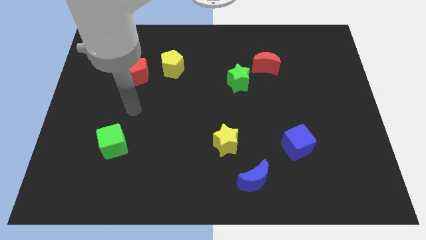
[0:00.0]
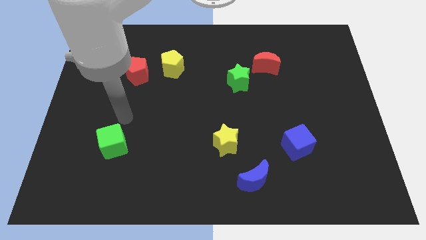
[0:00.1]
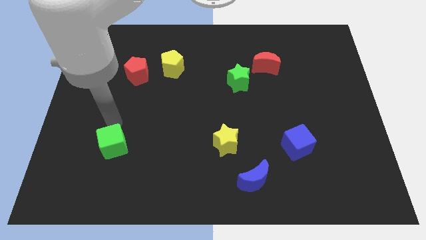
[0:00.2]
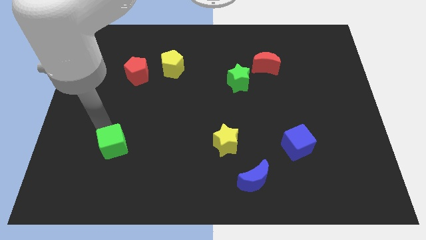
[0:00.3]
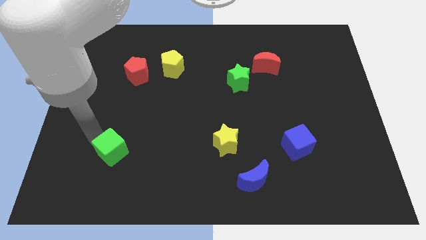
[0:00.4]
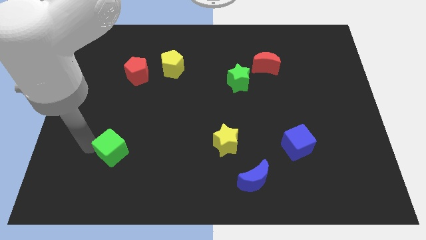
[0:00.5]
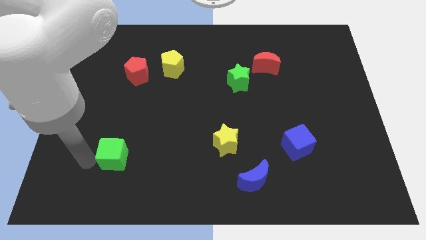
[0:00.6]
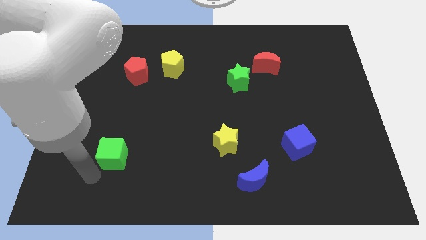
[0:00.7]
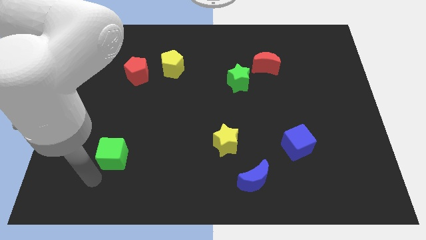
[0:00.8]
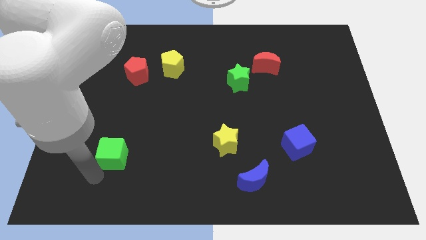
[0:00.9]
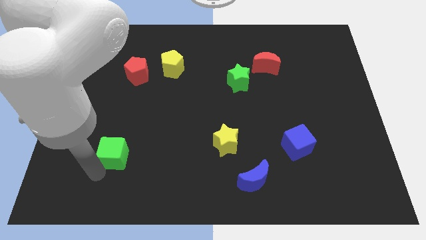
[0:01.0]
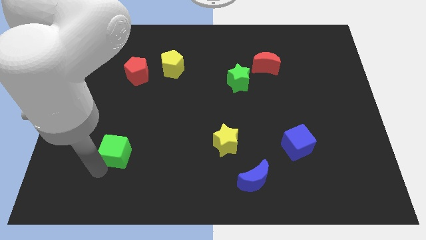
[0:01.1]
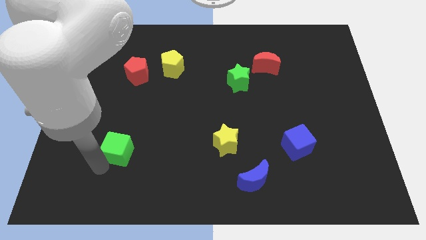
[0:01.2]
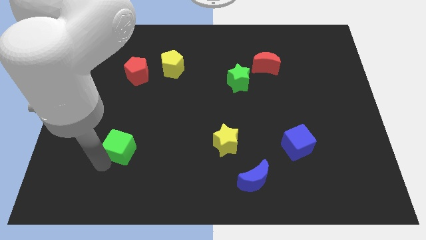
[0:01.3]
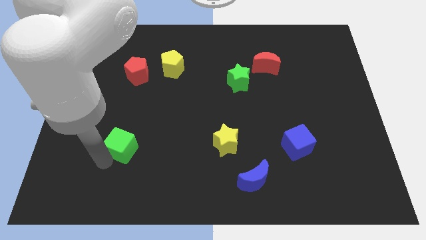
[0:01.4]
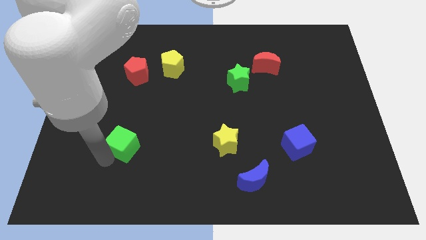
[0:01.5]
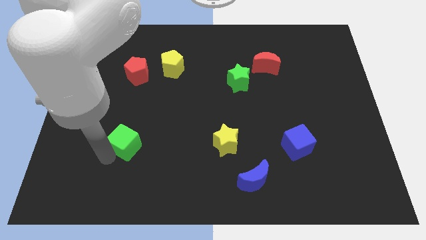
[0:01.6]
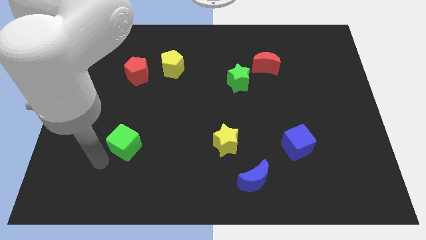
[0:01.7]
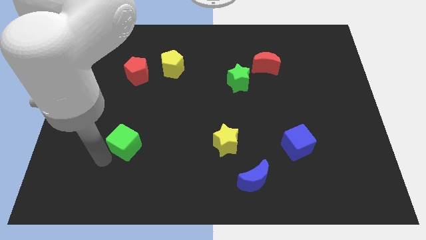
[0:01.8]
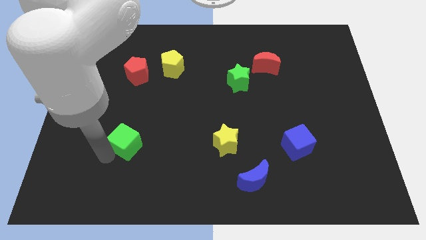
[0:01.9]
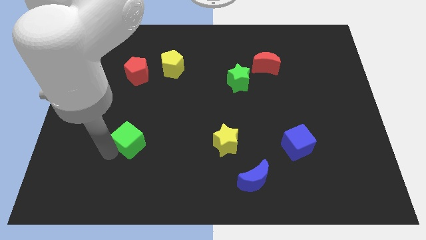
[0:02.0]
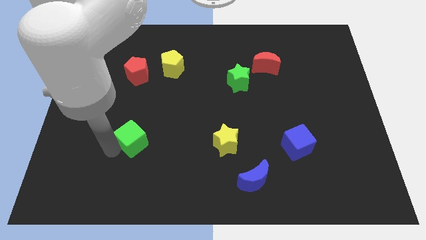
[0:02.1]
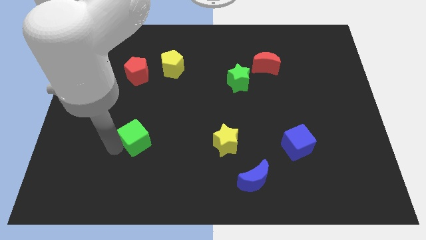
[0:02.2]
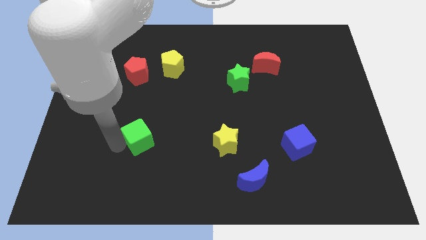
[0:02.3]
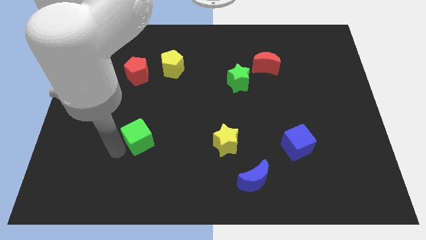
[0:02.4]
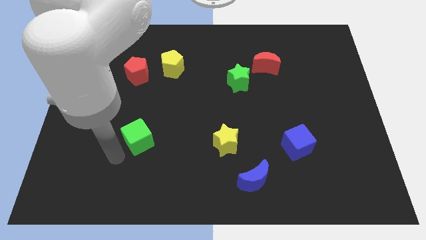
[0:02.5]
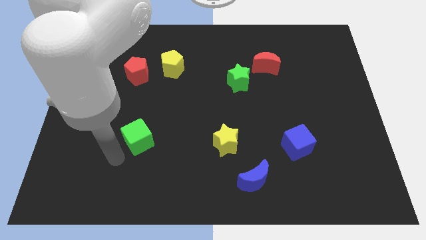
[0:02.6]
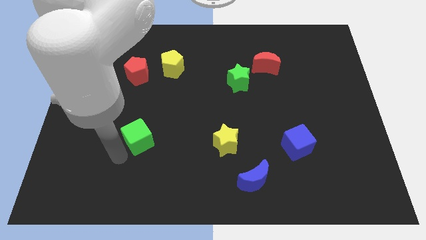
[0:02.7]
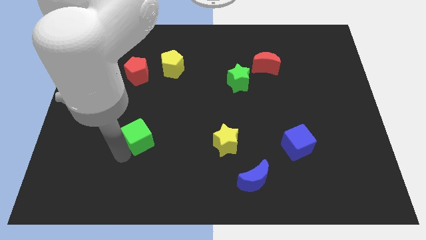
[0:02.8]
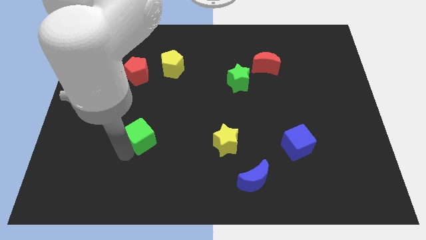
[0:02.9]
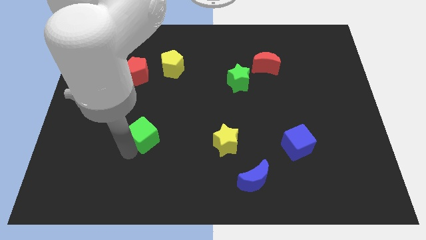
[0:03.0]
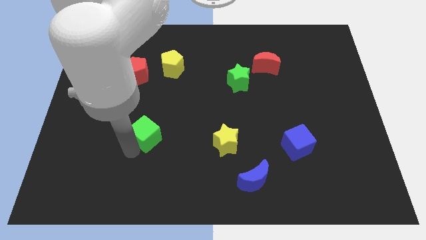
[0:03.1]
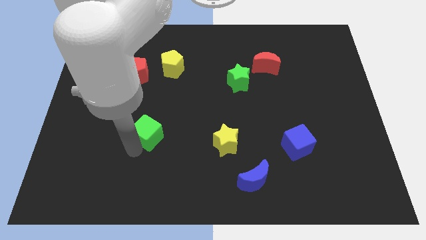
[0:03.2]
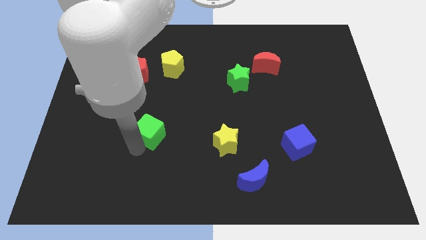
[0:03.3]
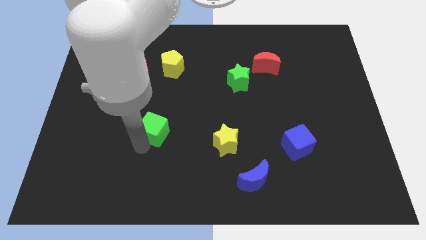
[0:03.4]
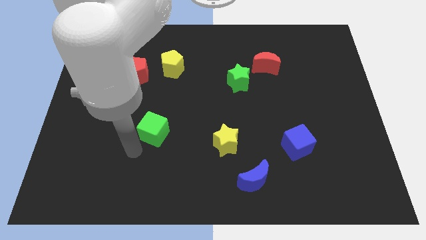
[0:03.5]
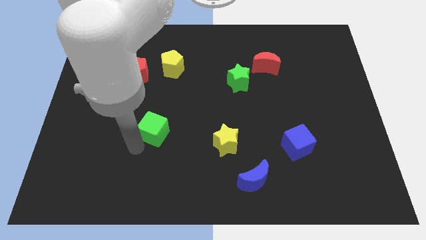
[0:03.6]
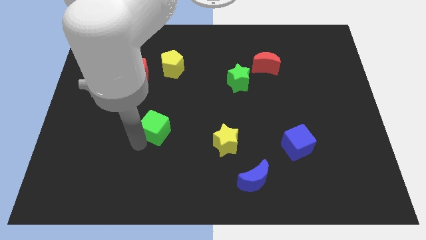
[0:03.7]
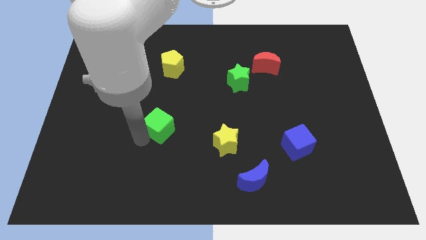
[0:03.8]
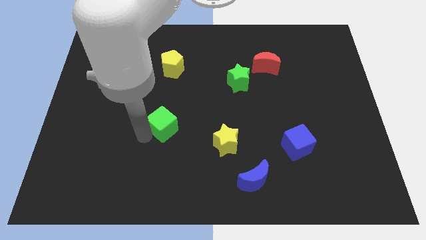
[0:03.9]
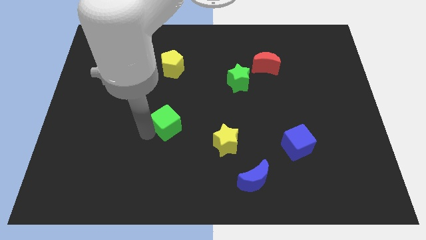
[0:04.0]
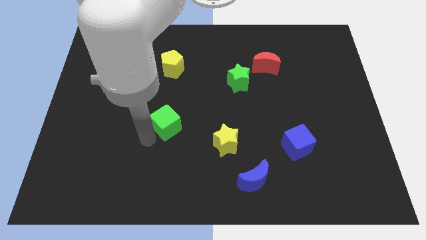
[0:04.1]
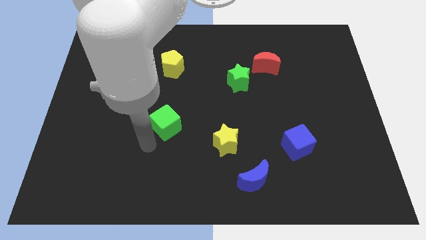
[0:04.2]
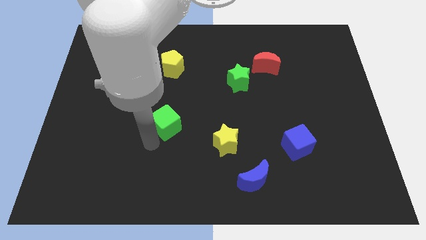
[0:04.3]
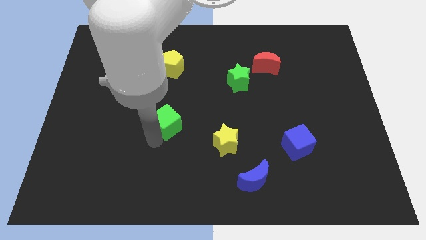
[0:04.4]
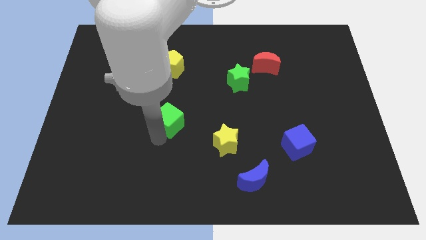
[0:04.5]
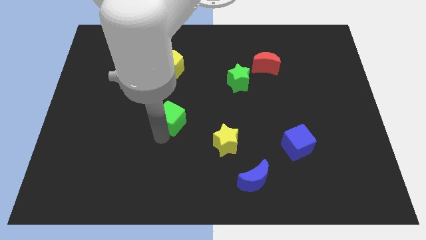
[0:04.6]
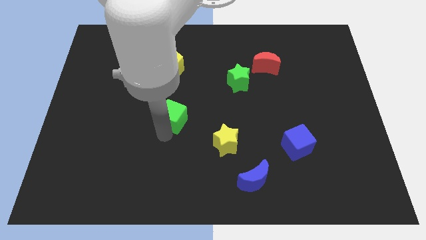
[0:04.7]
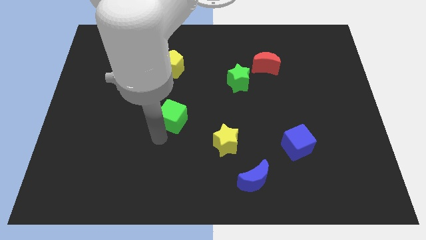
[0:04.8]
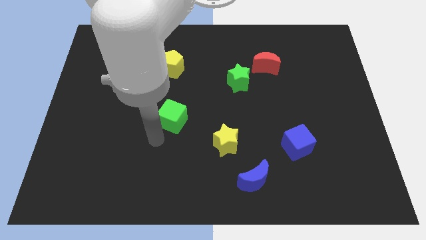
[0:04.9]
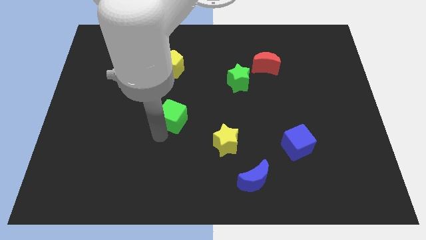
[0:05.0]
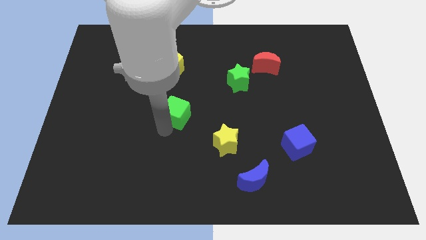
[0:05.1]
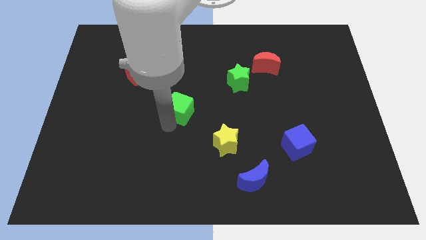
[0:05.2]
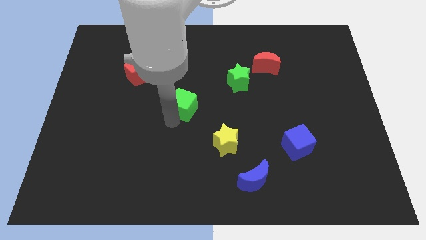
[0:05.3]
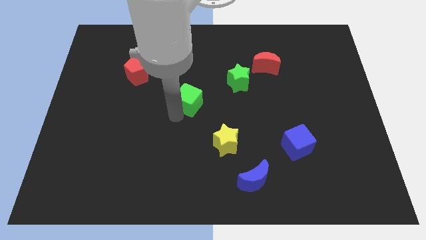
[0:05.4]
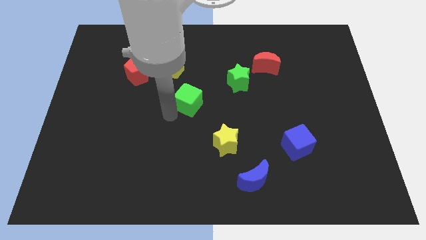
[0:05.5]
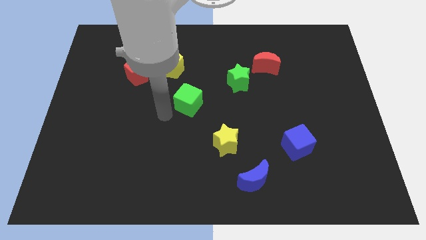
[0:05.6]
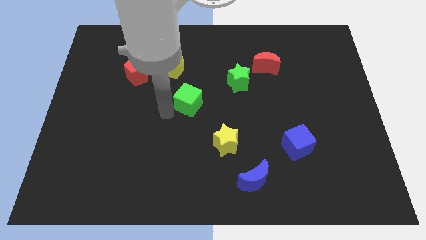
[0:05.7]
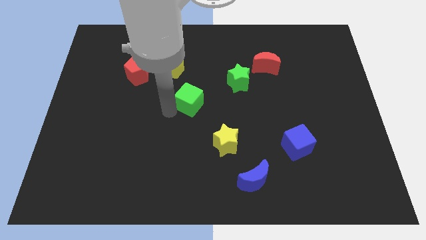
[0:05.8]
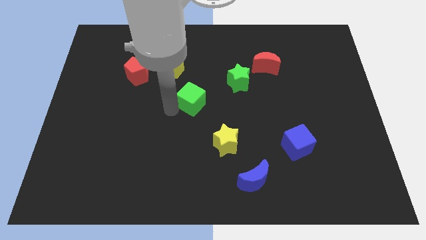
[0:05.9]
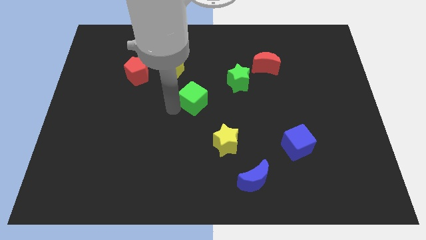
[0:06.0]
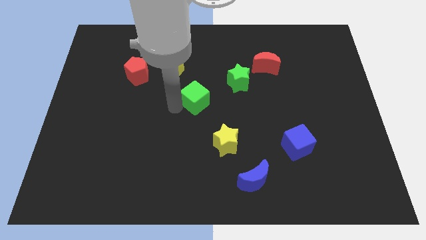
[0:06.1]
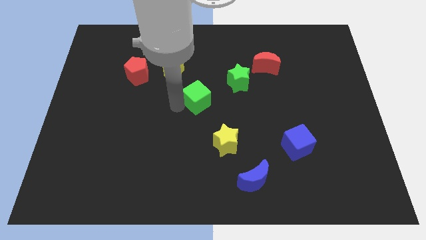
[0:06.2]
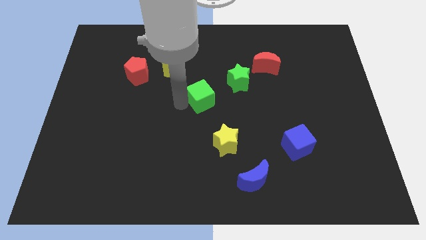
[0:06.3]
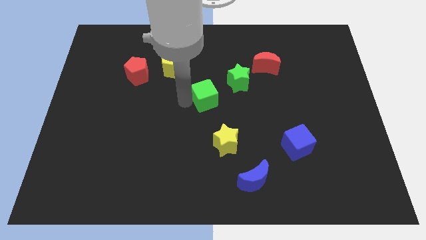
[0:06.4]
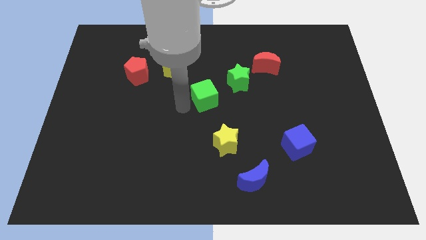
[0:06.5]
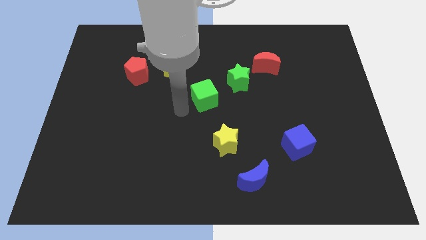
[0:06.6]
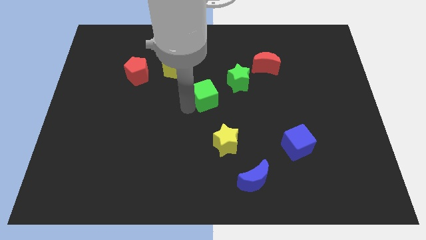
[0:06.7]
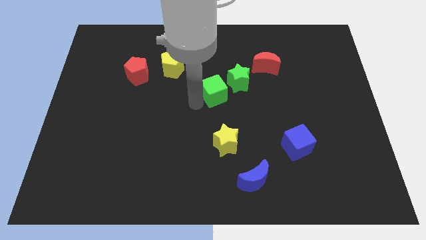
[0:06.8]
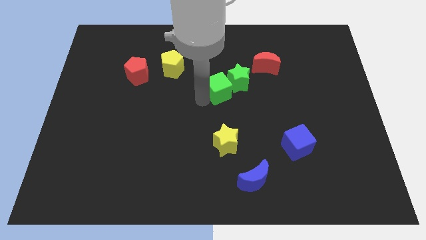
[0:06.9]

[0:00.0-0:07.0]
move the green cube towards the green star

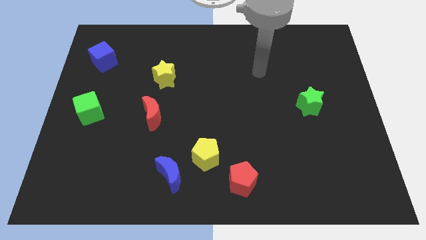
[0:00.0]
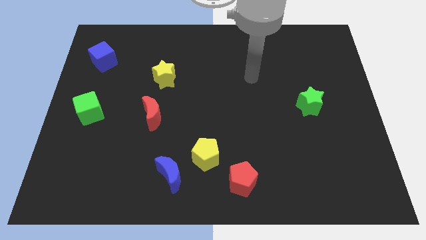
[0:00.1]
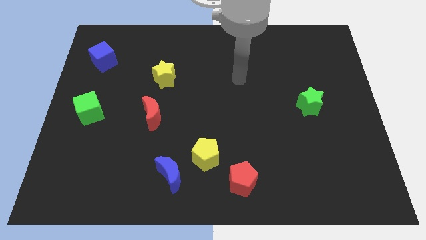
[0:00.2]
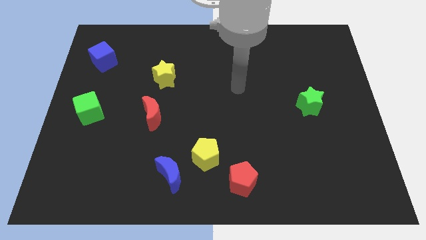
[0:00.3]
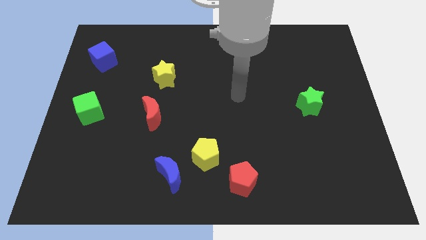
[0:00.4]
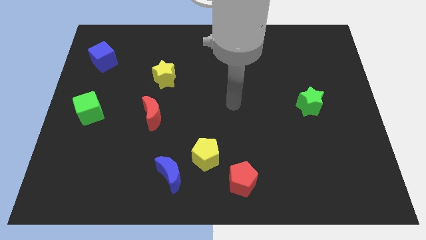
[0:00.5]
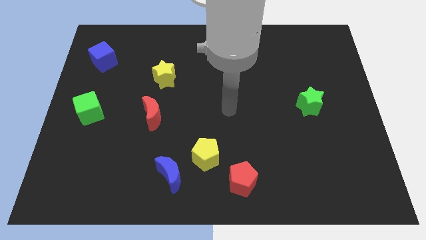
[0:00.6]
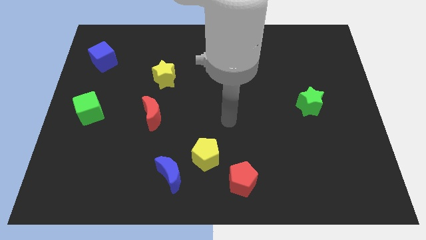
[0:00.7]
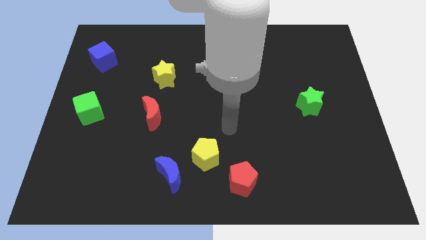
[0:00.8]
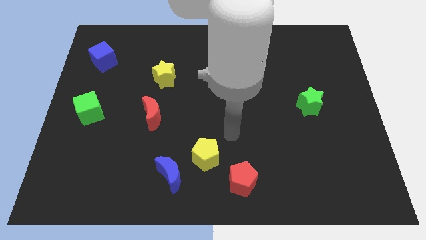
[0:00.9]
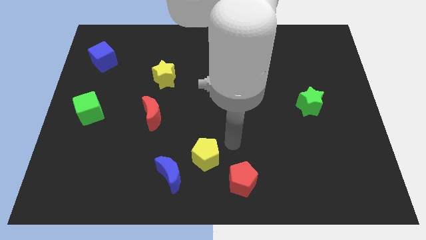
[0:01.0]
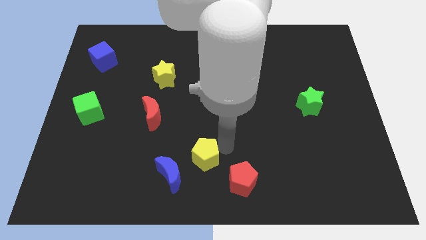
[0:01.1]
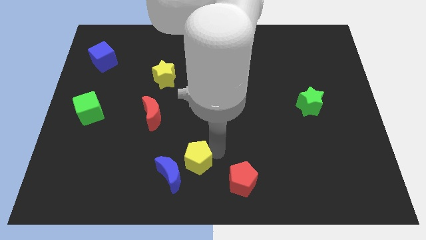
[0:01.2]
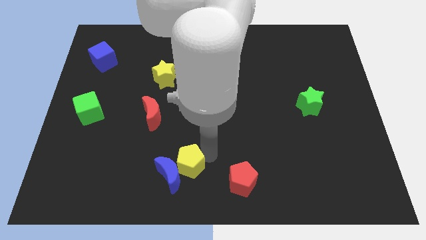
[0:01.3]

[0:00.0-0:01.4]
push the yellow pentagon close to the blue moon
